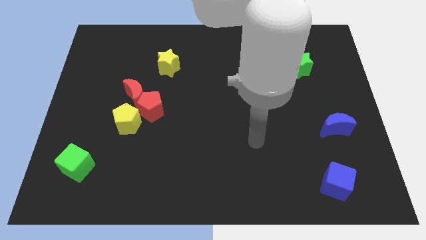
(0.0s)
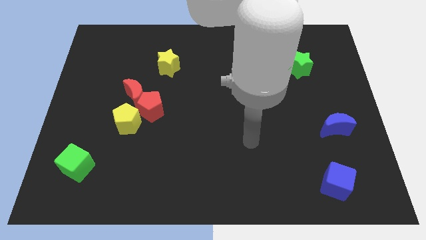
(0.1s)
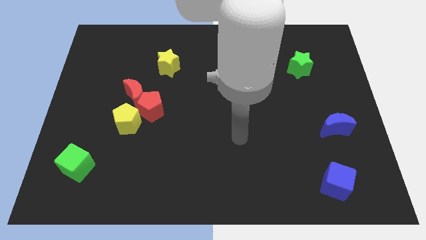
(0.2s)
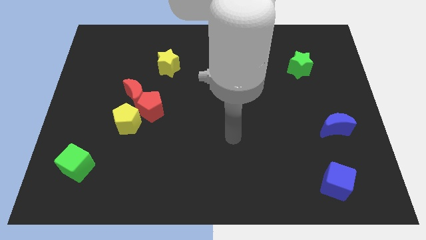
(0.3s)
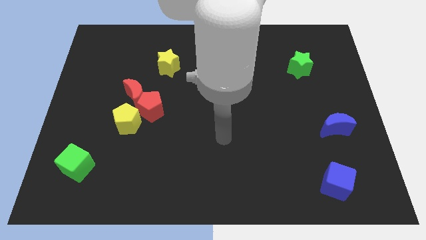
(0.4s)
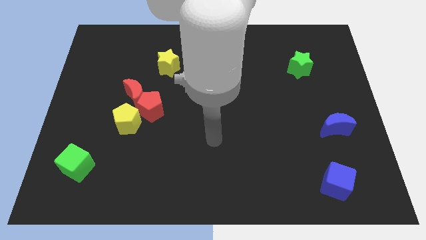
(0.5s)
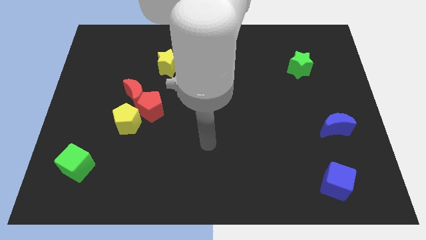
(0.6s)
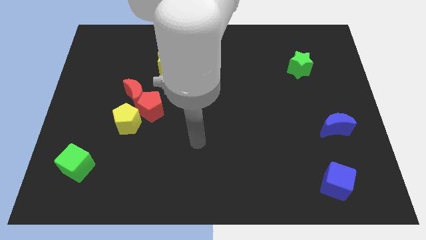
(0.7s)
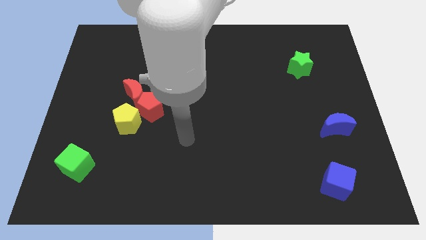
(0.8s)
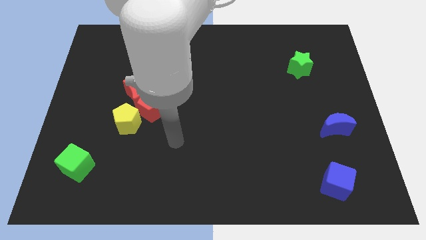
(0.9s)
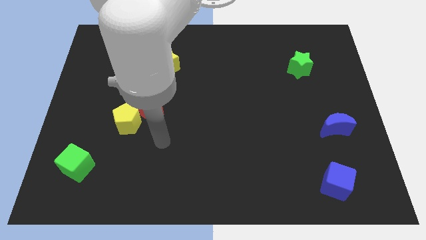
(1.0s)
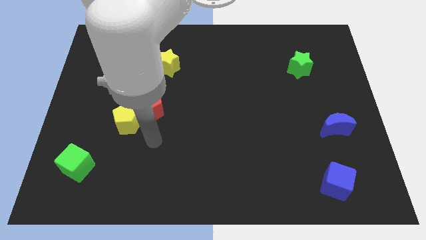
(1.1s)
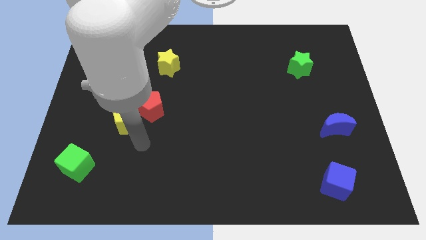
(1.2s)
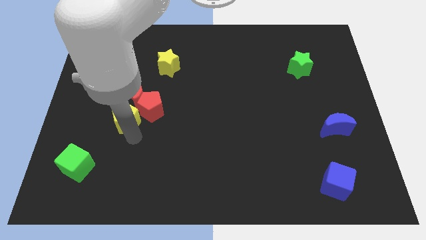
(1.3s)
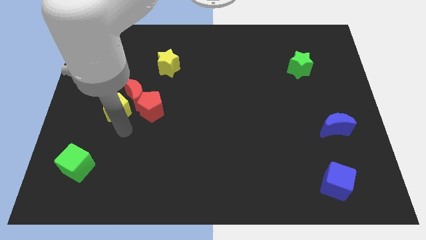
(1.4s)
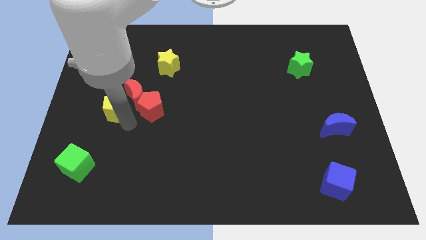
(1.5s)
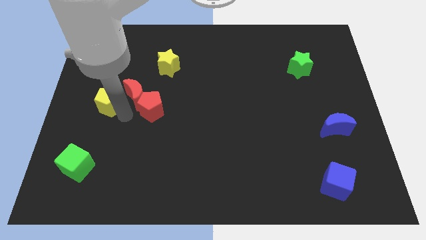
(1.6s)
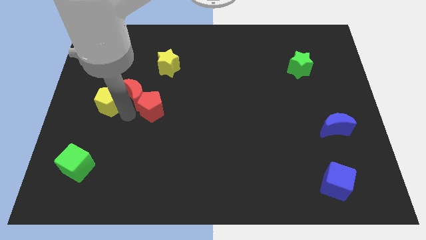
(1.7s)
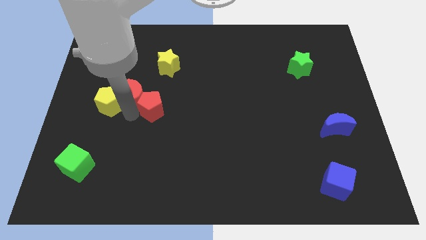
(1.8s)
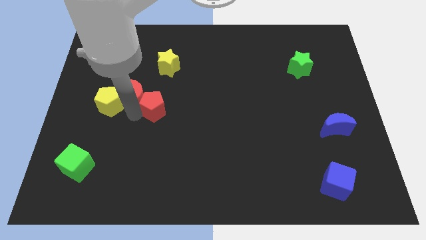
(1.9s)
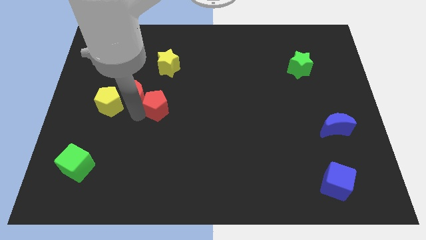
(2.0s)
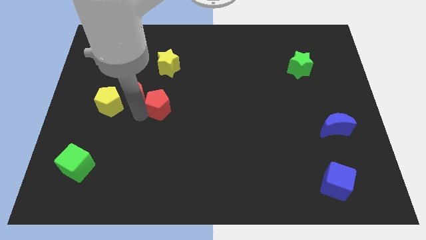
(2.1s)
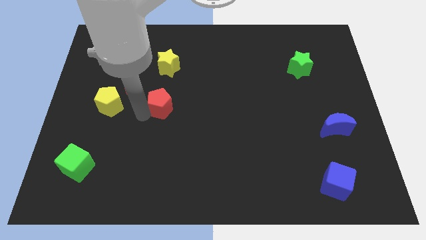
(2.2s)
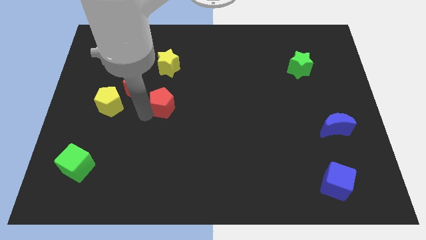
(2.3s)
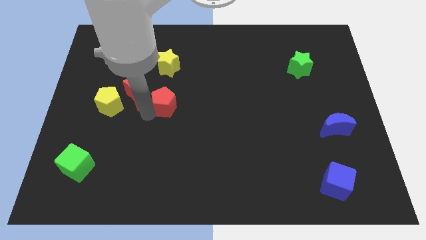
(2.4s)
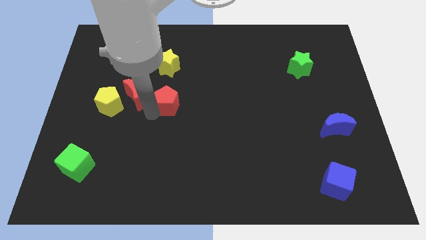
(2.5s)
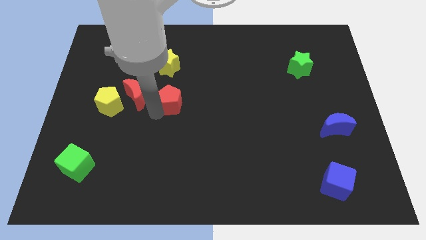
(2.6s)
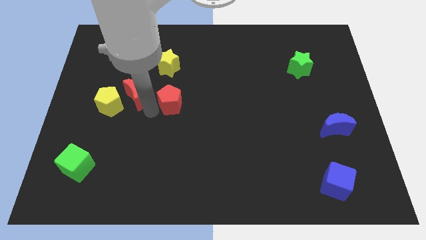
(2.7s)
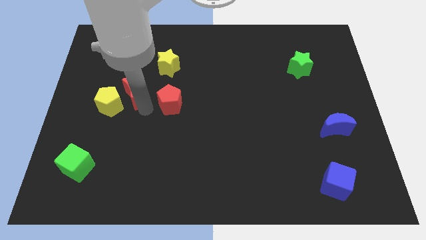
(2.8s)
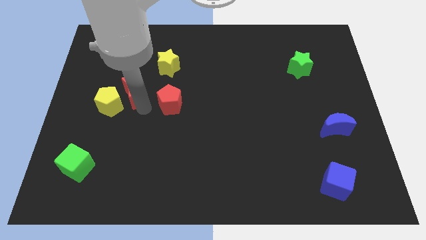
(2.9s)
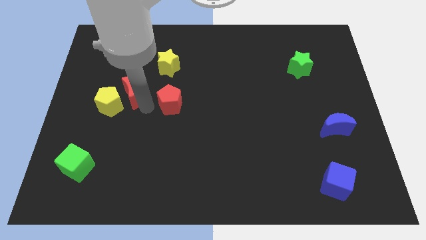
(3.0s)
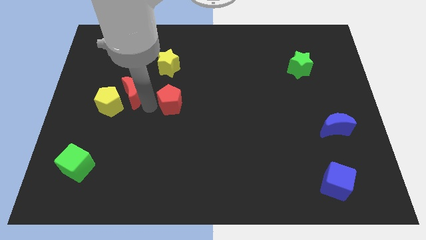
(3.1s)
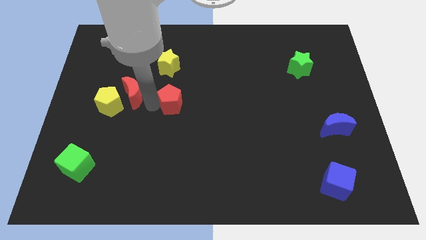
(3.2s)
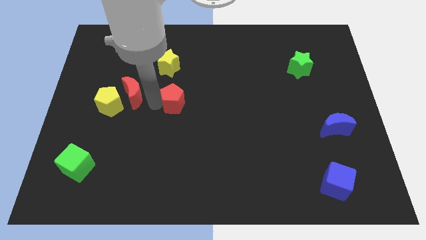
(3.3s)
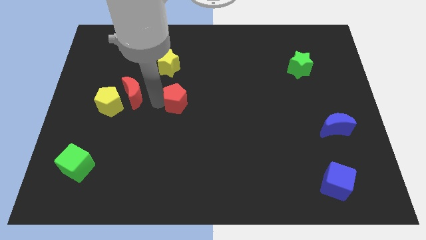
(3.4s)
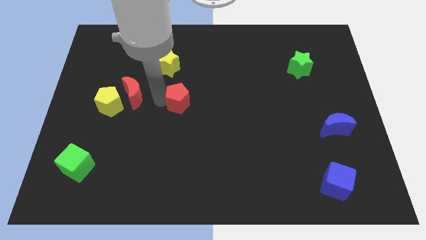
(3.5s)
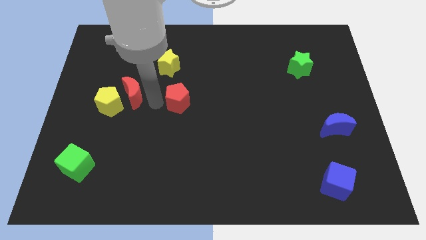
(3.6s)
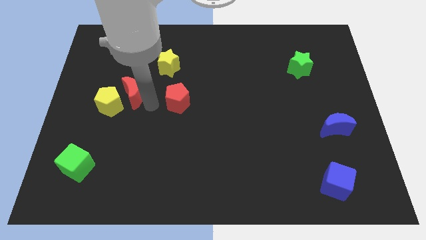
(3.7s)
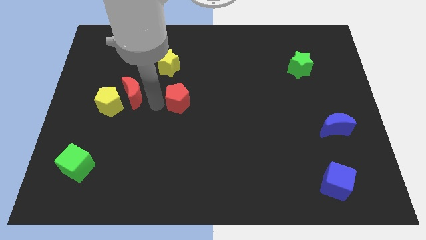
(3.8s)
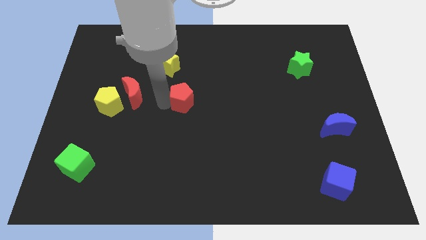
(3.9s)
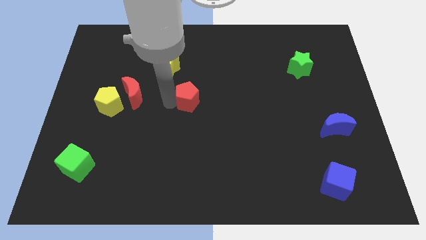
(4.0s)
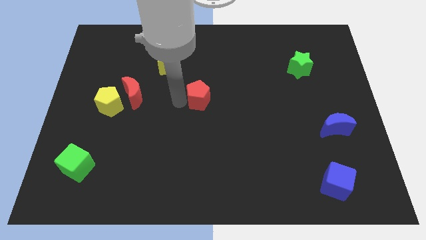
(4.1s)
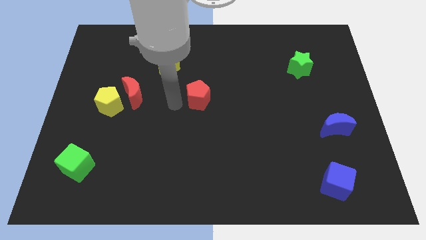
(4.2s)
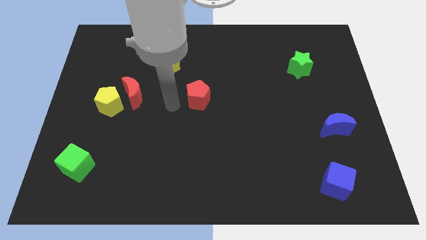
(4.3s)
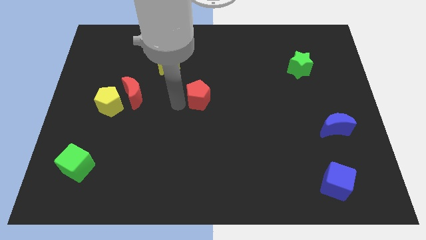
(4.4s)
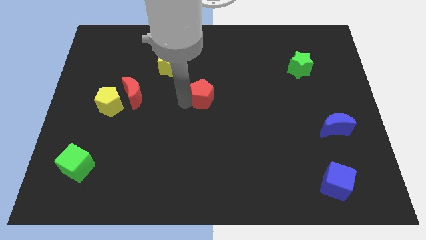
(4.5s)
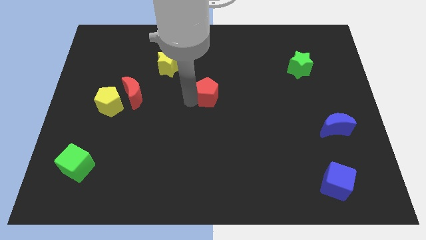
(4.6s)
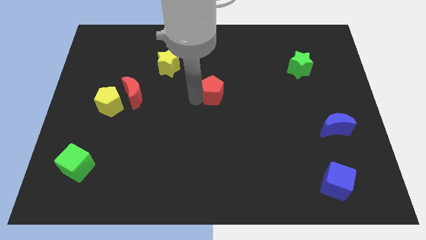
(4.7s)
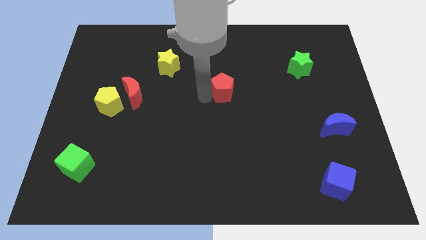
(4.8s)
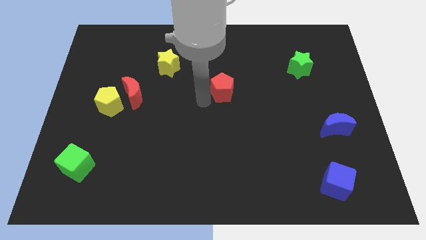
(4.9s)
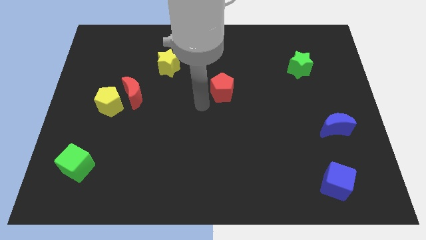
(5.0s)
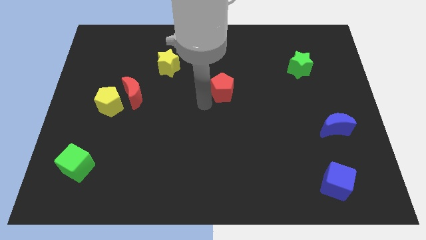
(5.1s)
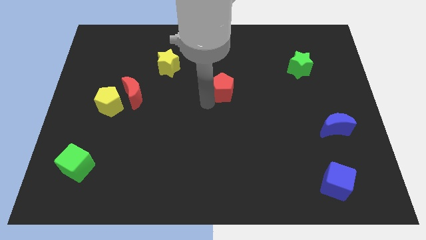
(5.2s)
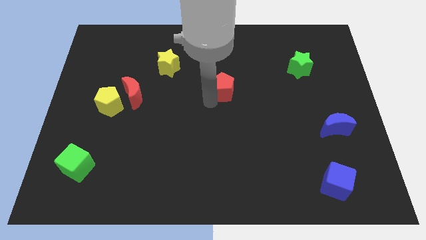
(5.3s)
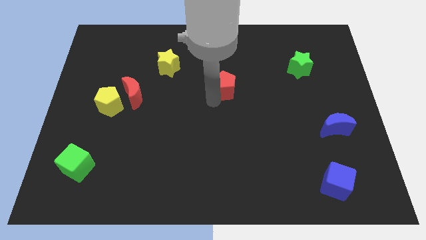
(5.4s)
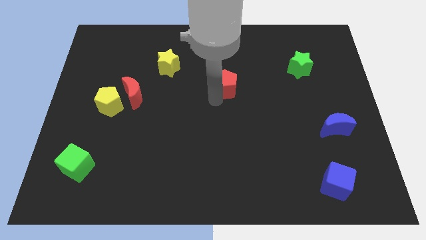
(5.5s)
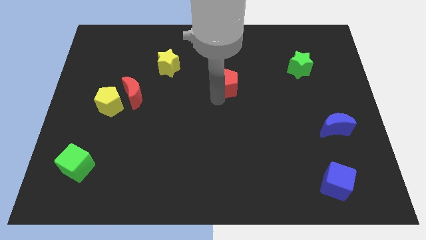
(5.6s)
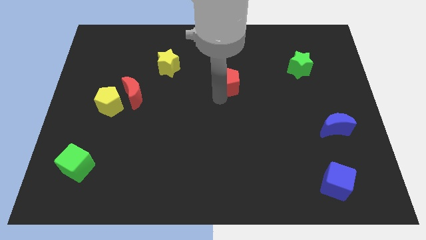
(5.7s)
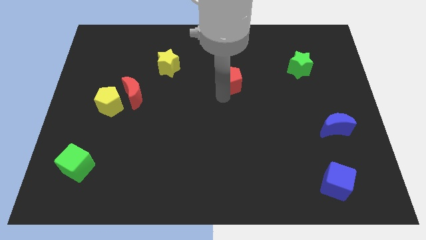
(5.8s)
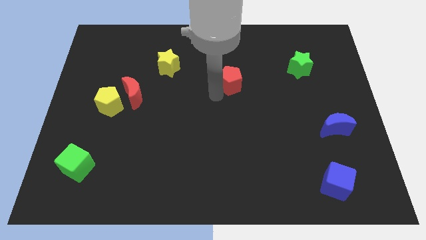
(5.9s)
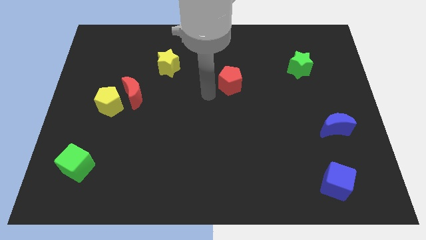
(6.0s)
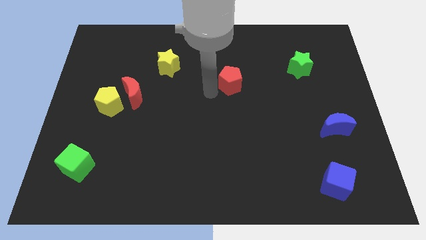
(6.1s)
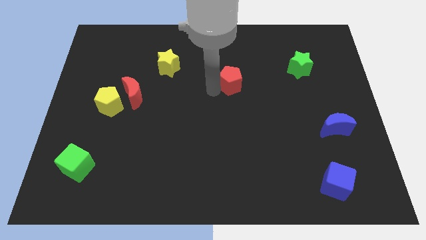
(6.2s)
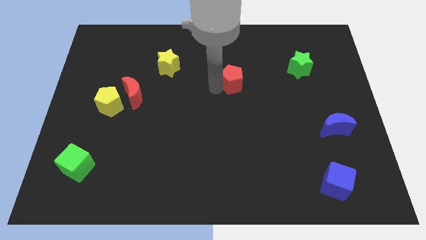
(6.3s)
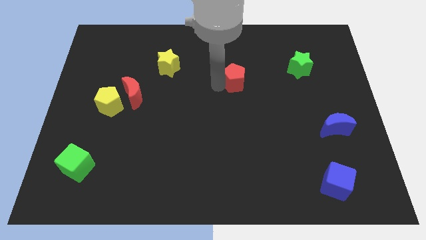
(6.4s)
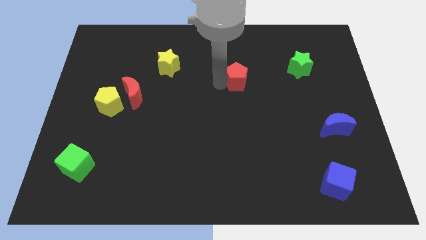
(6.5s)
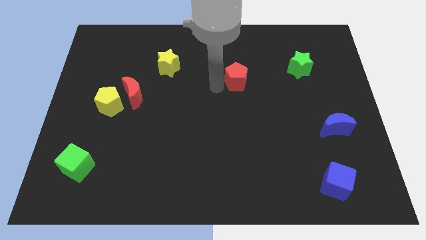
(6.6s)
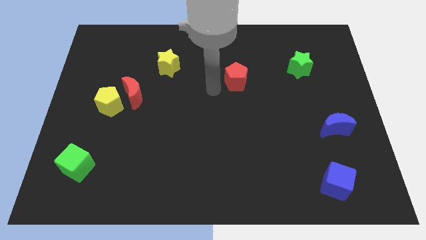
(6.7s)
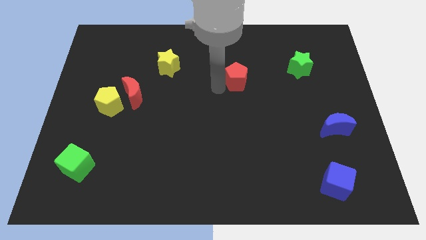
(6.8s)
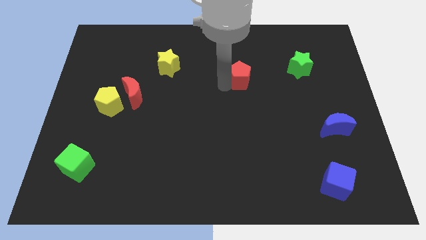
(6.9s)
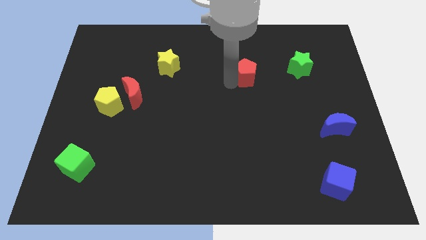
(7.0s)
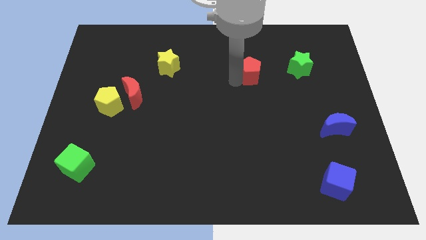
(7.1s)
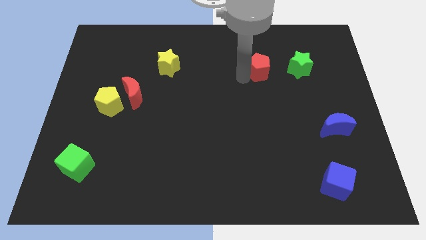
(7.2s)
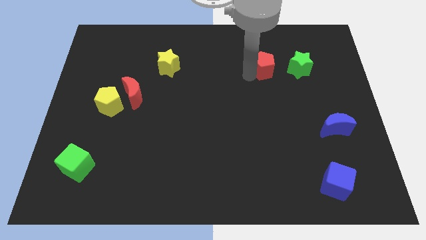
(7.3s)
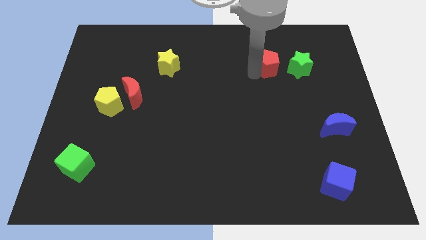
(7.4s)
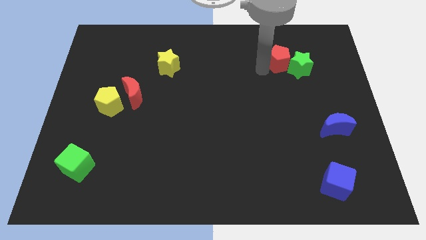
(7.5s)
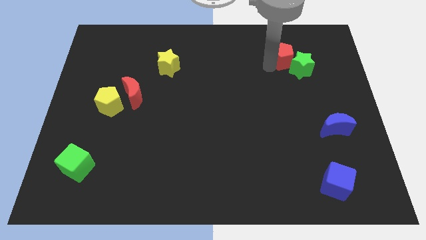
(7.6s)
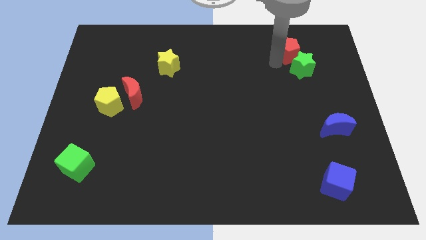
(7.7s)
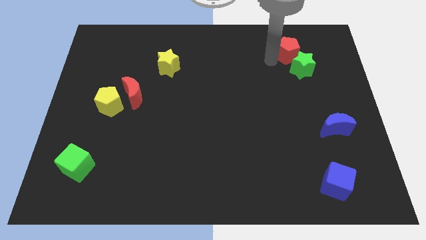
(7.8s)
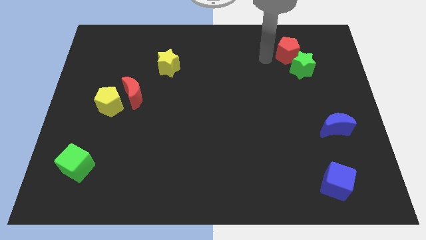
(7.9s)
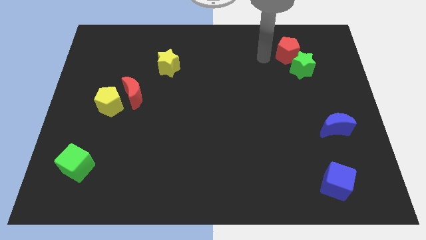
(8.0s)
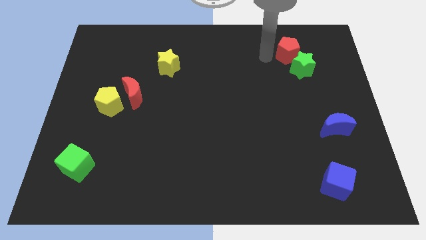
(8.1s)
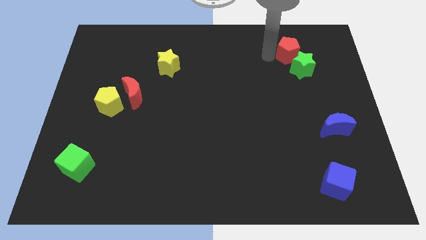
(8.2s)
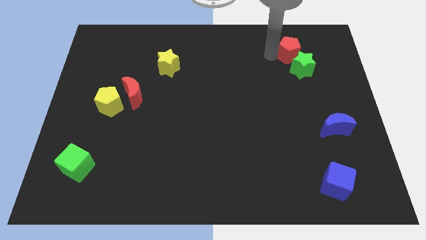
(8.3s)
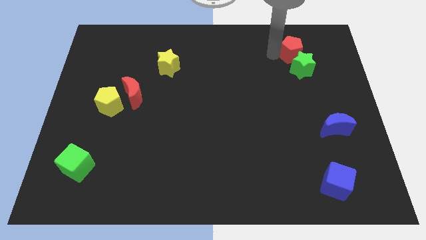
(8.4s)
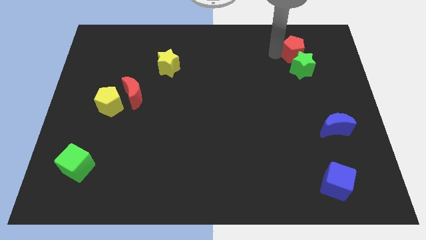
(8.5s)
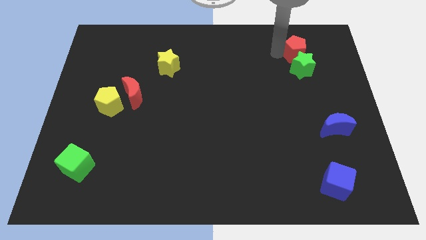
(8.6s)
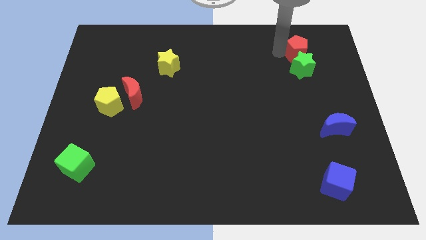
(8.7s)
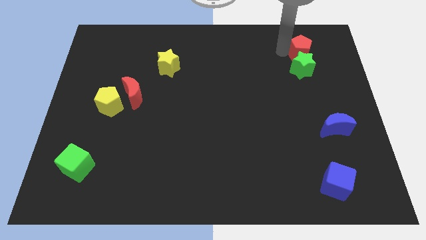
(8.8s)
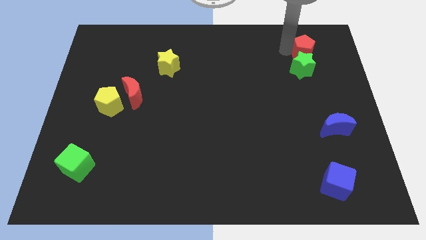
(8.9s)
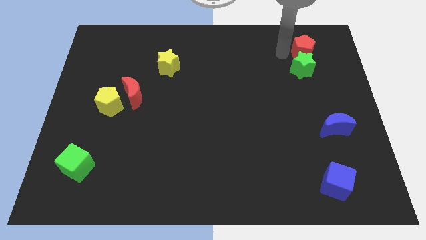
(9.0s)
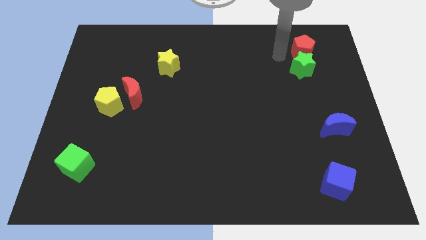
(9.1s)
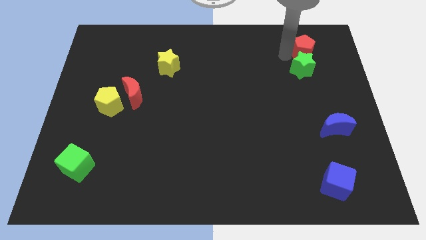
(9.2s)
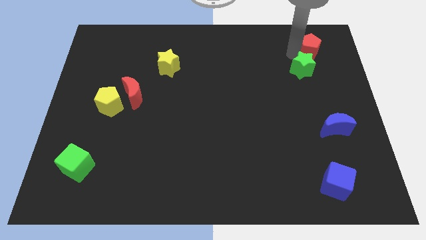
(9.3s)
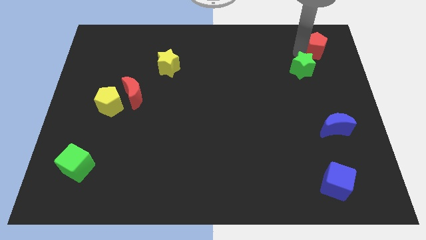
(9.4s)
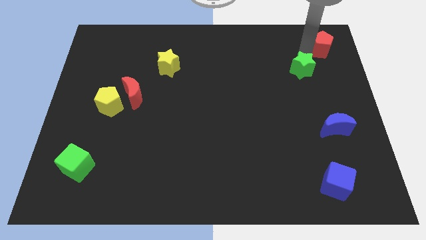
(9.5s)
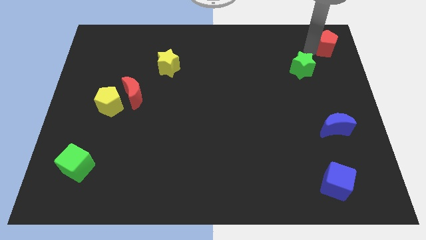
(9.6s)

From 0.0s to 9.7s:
push the red pentagon to the top right corner
